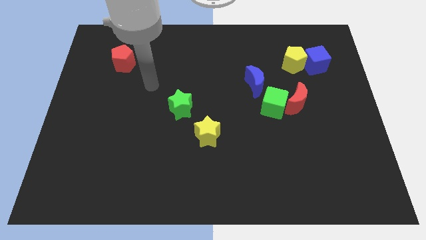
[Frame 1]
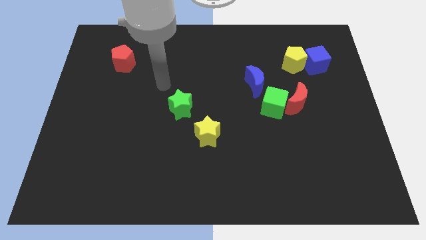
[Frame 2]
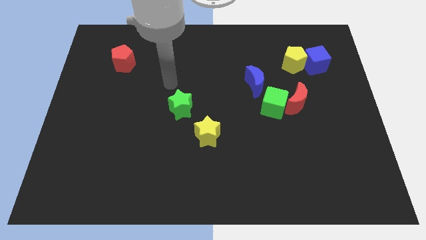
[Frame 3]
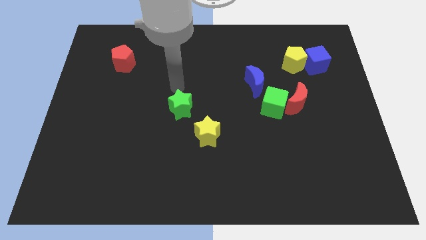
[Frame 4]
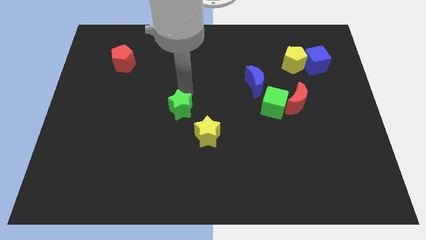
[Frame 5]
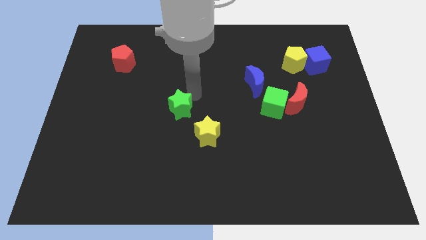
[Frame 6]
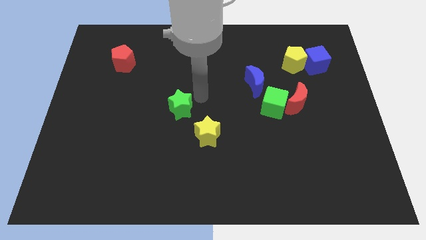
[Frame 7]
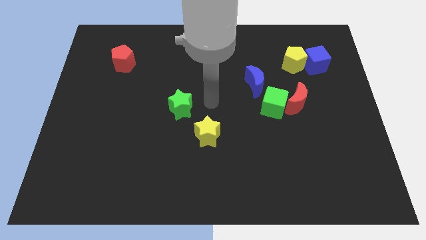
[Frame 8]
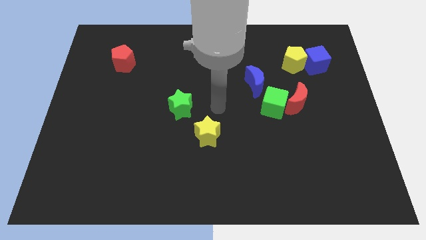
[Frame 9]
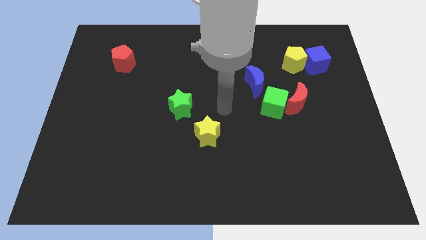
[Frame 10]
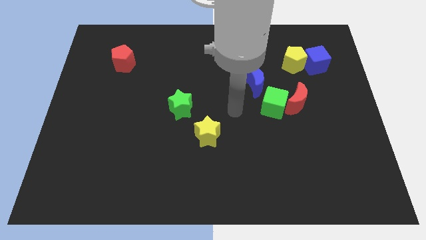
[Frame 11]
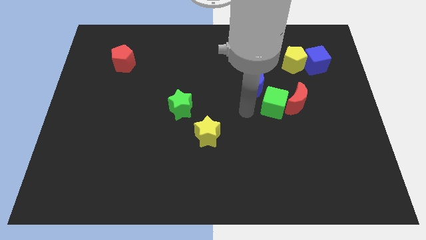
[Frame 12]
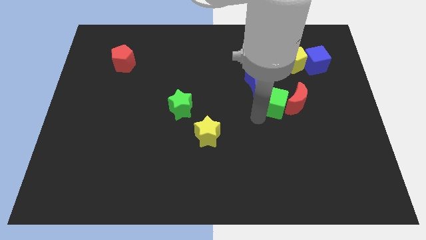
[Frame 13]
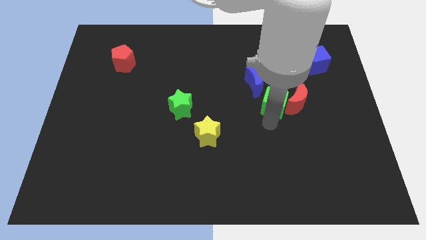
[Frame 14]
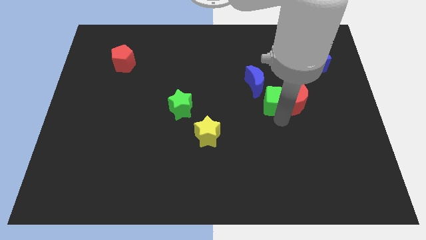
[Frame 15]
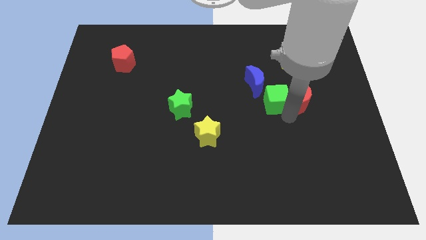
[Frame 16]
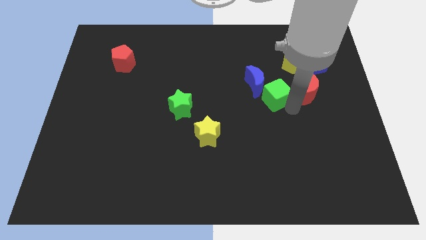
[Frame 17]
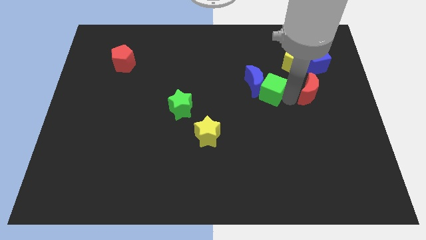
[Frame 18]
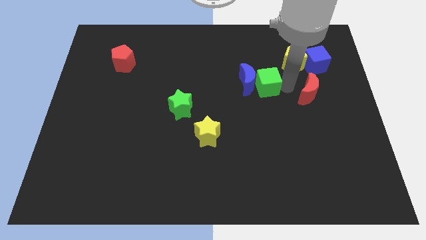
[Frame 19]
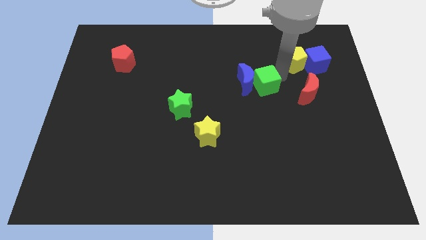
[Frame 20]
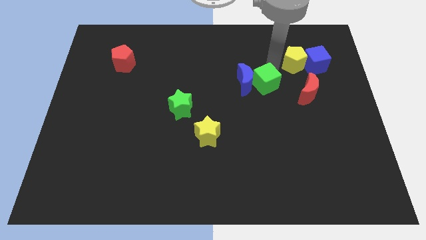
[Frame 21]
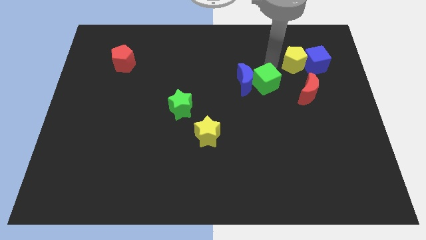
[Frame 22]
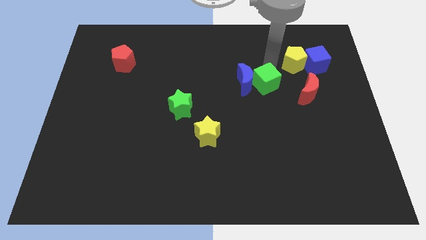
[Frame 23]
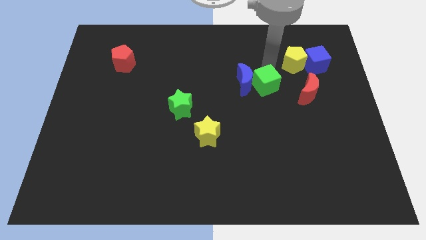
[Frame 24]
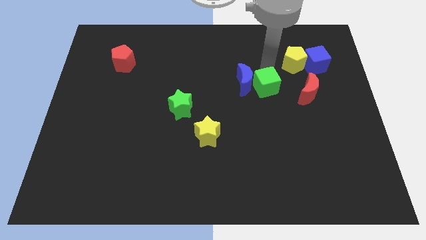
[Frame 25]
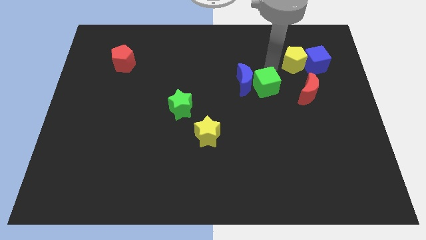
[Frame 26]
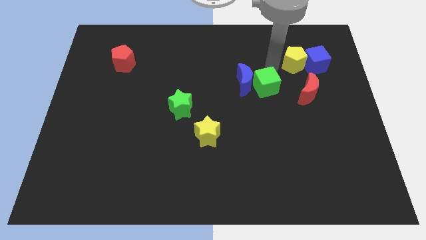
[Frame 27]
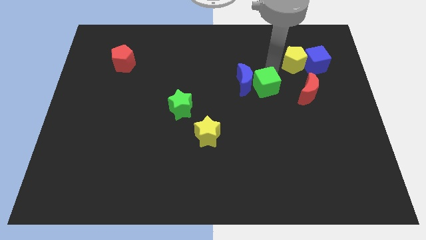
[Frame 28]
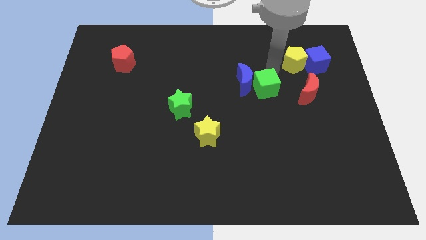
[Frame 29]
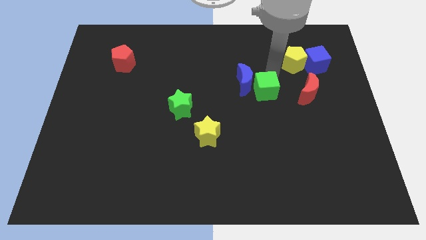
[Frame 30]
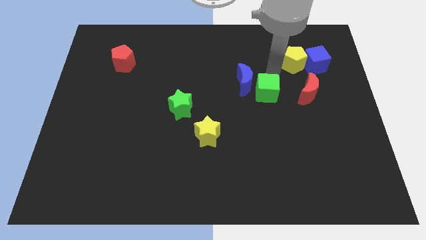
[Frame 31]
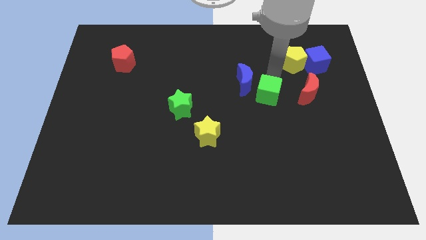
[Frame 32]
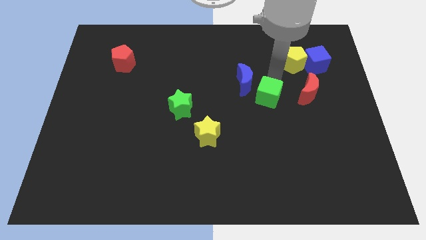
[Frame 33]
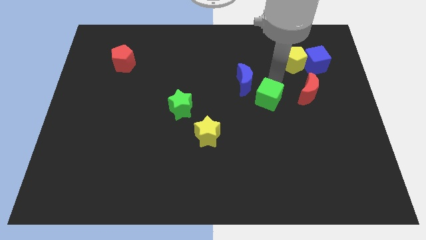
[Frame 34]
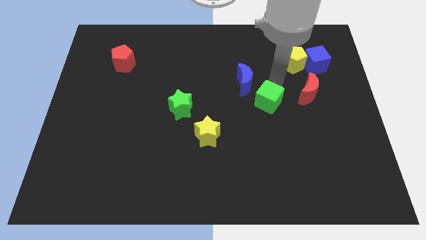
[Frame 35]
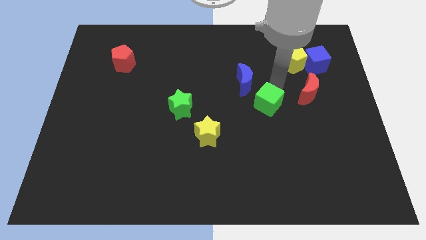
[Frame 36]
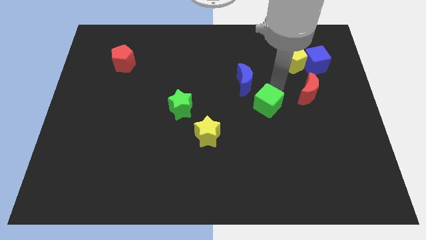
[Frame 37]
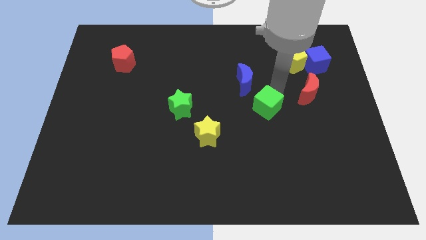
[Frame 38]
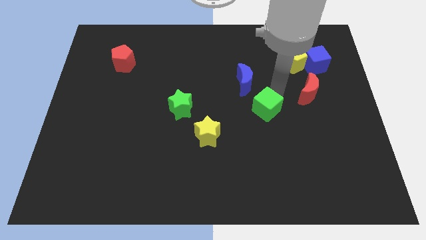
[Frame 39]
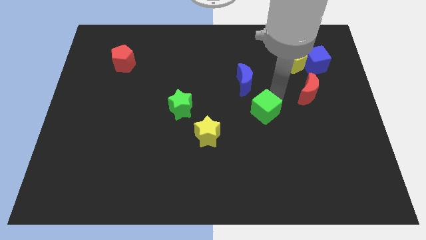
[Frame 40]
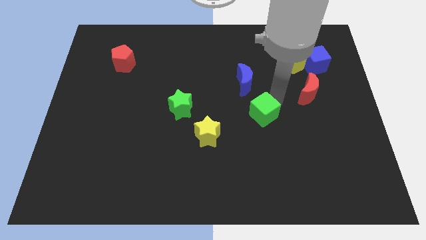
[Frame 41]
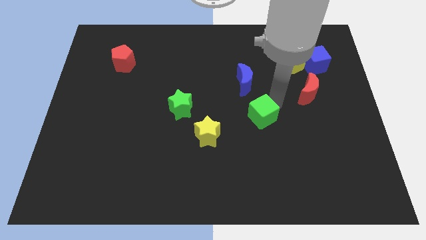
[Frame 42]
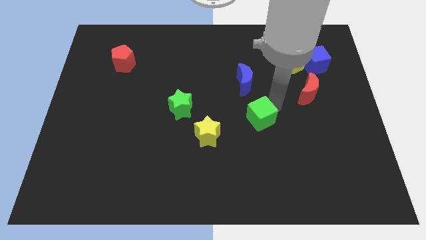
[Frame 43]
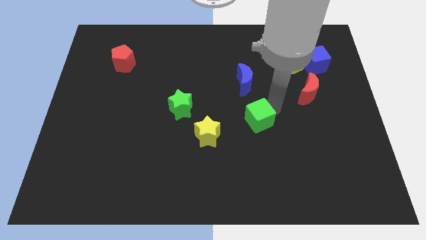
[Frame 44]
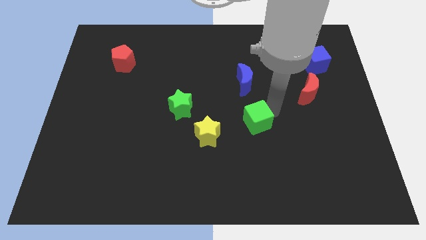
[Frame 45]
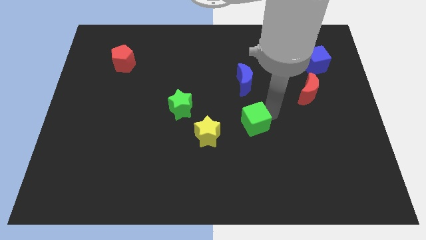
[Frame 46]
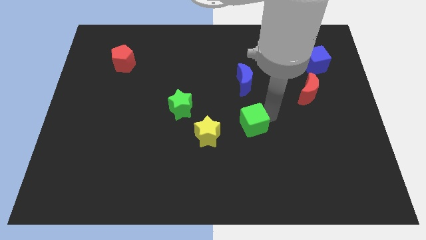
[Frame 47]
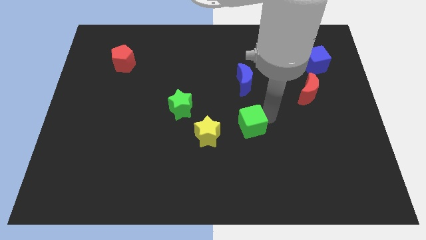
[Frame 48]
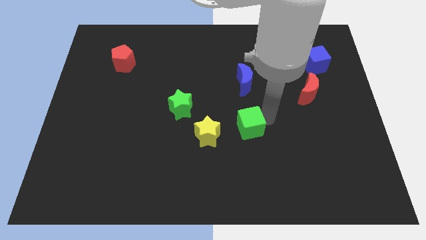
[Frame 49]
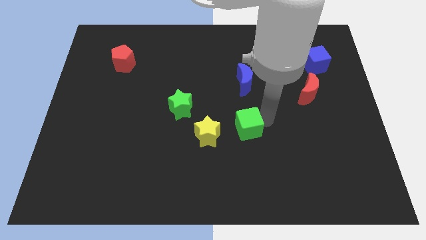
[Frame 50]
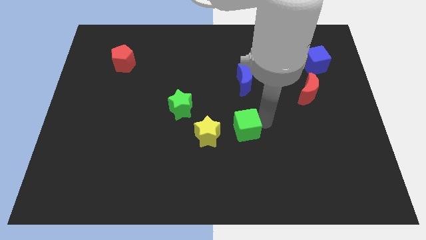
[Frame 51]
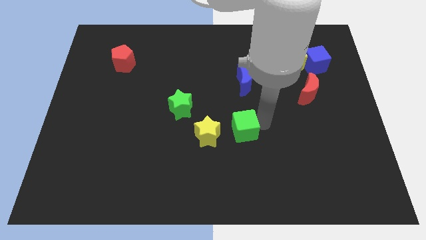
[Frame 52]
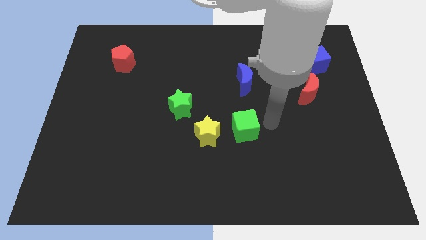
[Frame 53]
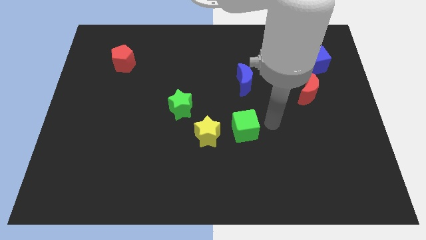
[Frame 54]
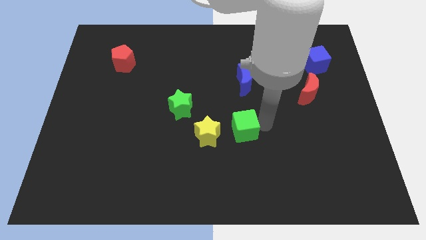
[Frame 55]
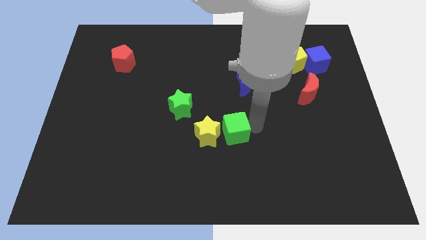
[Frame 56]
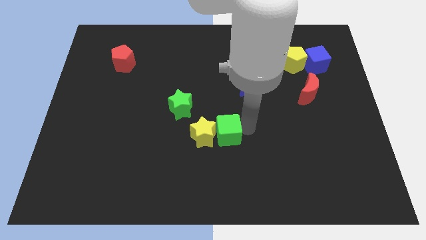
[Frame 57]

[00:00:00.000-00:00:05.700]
slide the green cube to the yellow star

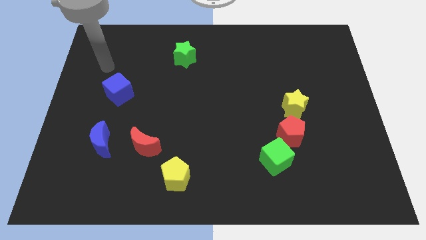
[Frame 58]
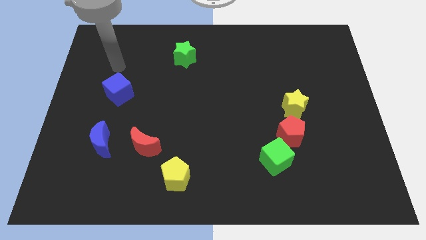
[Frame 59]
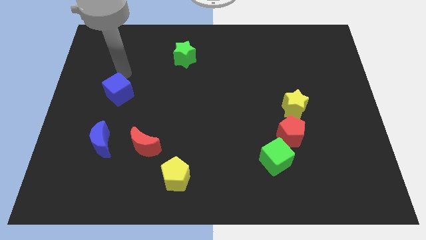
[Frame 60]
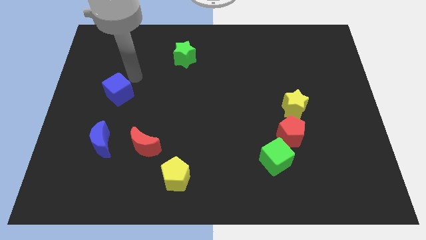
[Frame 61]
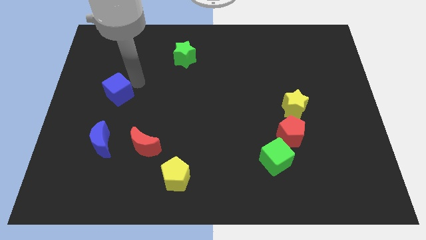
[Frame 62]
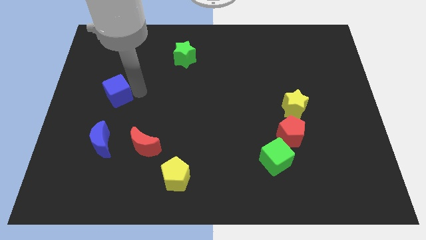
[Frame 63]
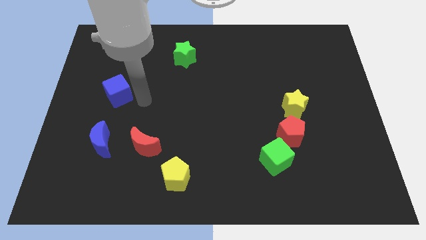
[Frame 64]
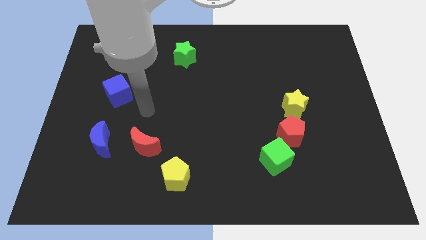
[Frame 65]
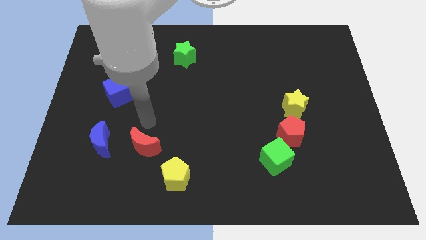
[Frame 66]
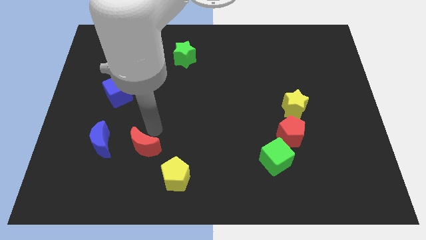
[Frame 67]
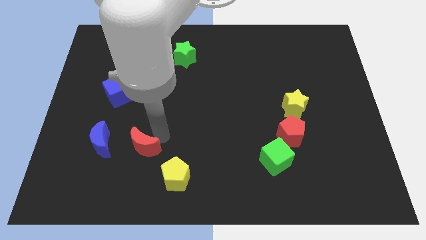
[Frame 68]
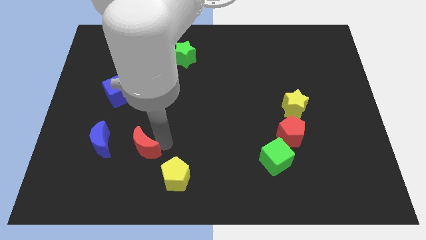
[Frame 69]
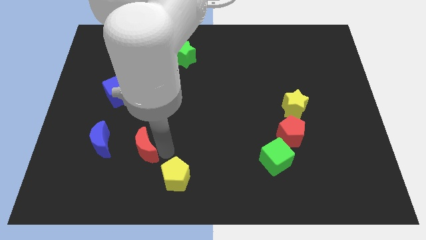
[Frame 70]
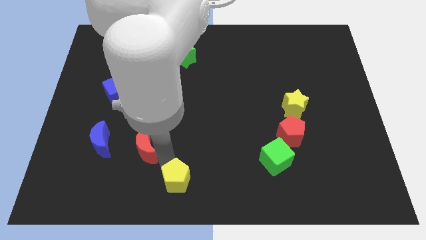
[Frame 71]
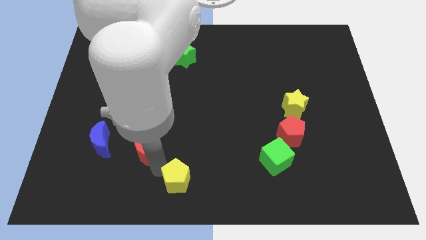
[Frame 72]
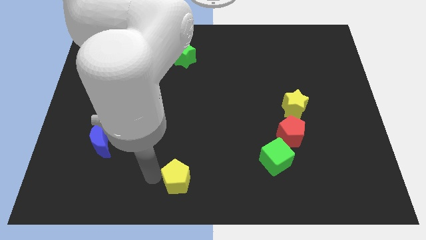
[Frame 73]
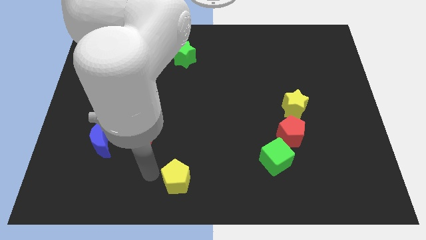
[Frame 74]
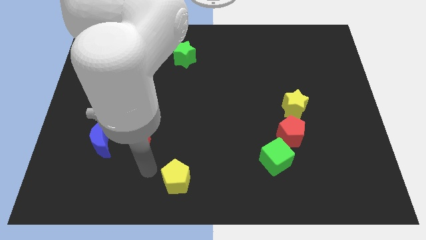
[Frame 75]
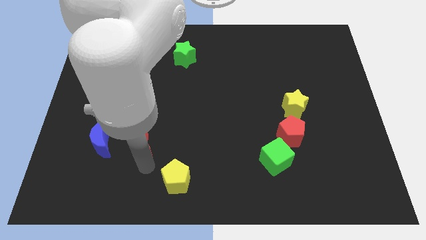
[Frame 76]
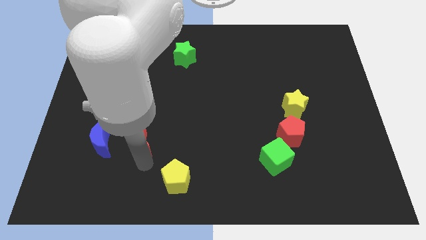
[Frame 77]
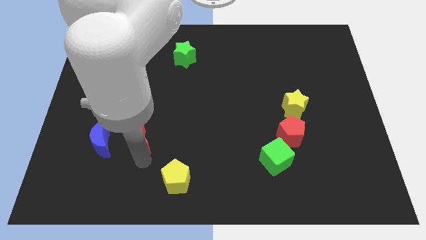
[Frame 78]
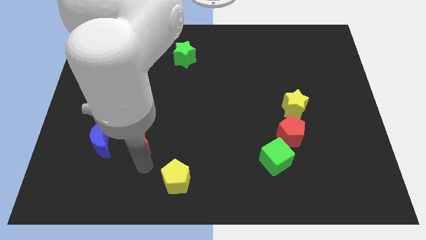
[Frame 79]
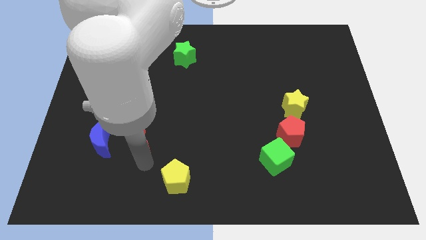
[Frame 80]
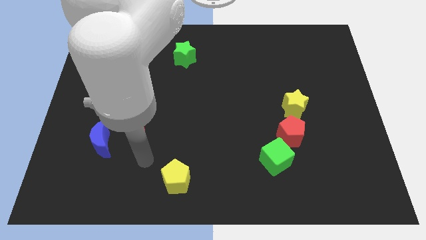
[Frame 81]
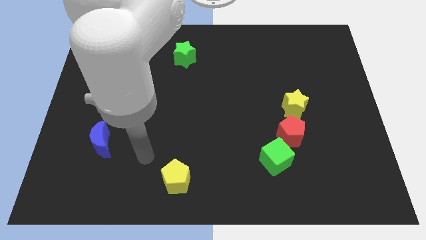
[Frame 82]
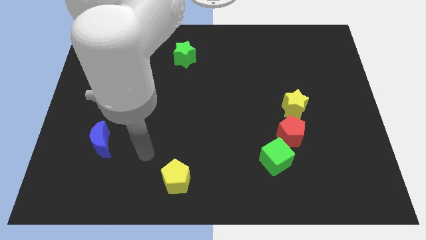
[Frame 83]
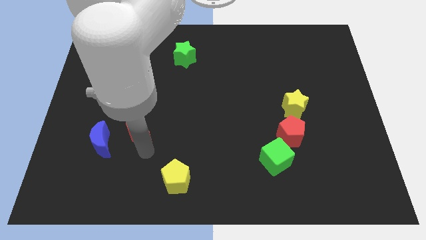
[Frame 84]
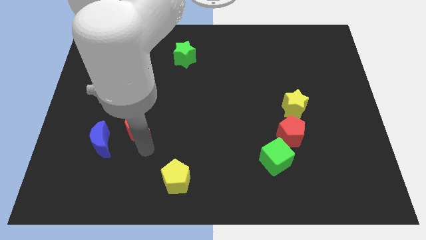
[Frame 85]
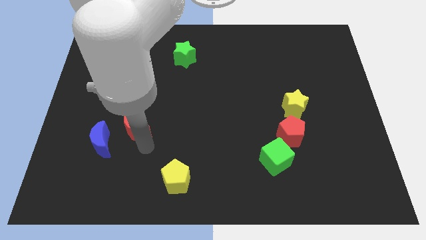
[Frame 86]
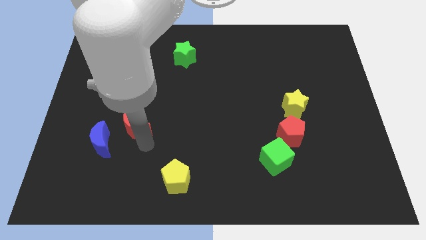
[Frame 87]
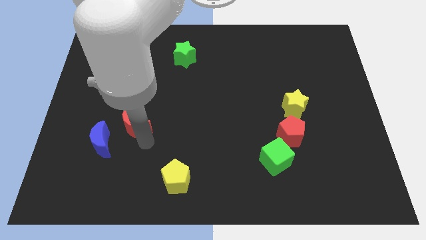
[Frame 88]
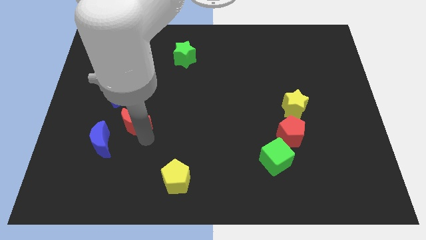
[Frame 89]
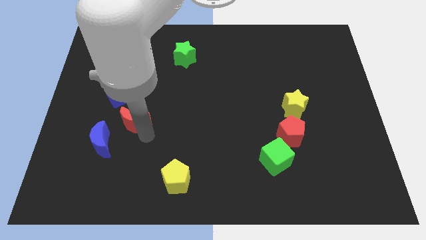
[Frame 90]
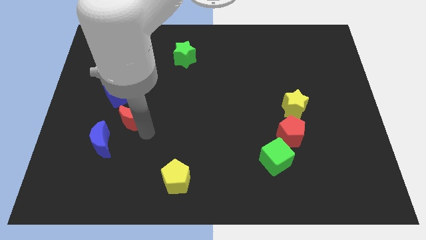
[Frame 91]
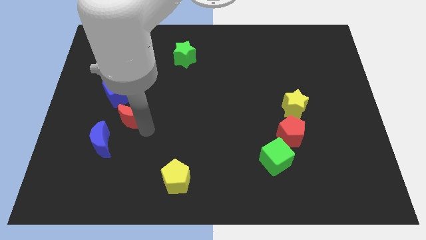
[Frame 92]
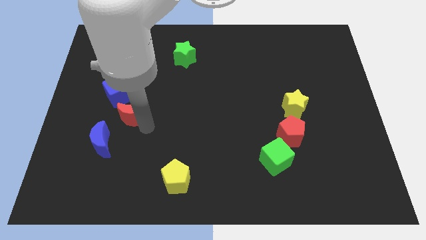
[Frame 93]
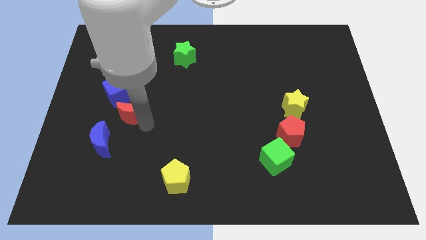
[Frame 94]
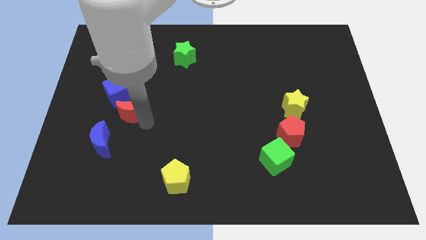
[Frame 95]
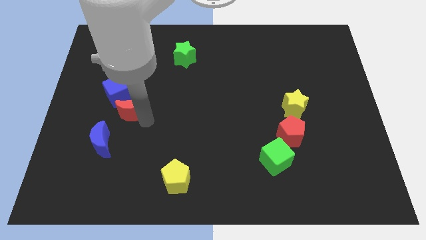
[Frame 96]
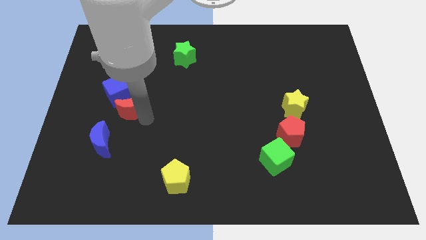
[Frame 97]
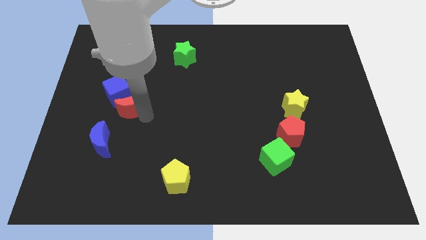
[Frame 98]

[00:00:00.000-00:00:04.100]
slide the red moon close to the blue cube
